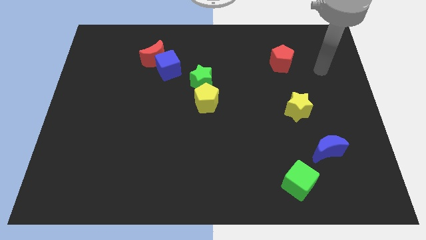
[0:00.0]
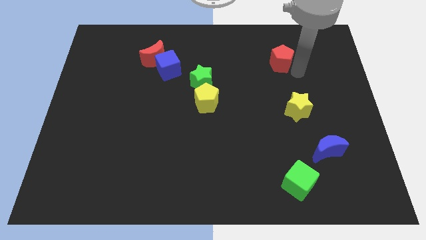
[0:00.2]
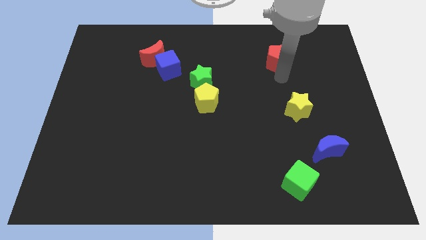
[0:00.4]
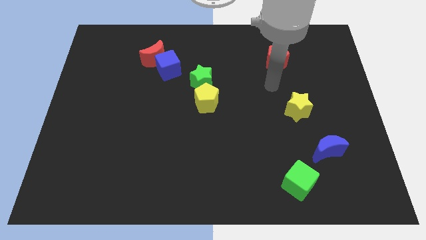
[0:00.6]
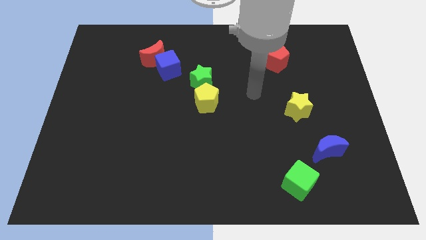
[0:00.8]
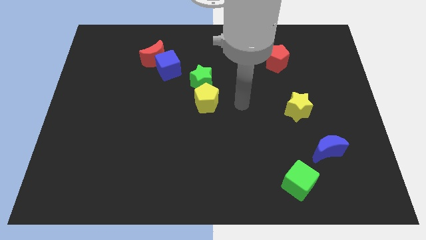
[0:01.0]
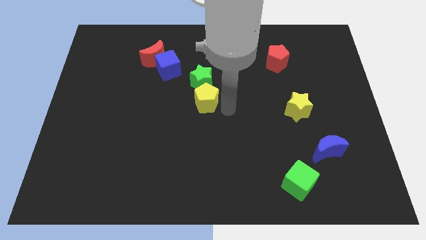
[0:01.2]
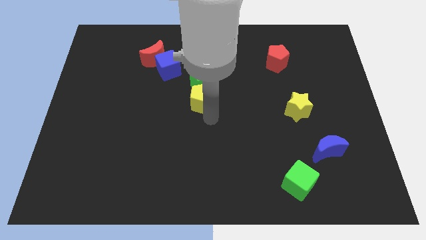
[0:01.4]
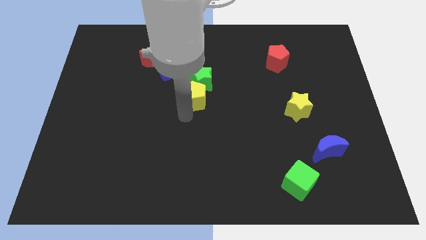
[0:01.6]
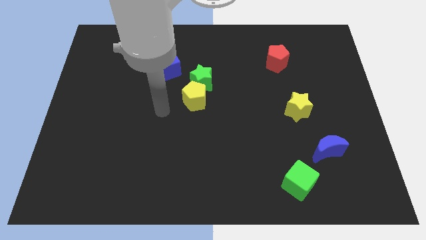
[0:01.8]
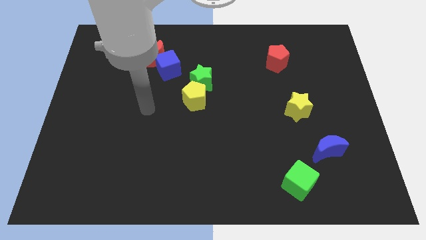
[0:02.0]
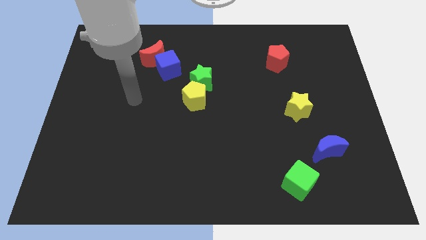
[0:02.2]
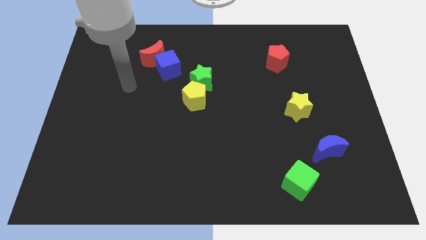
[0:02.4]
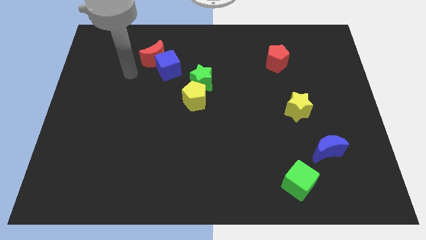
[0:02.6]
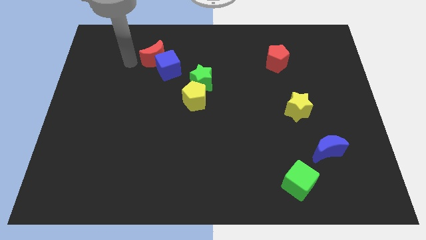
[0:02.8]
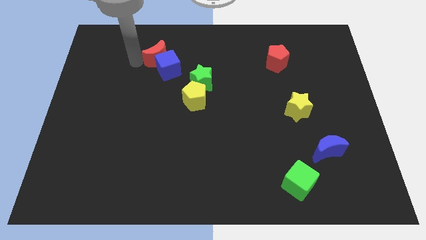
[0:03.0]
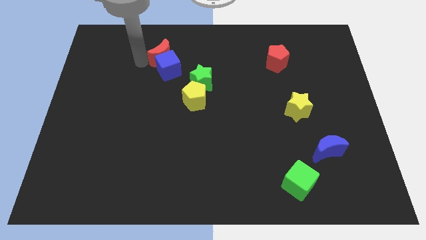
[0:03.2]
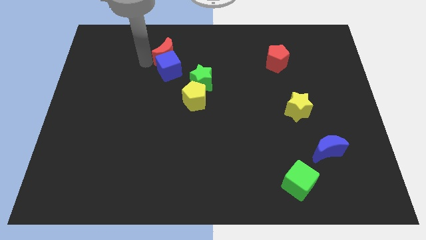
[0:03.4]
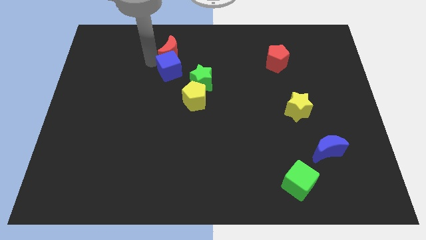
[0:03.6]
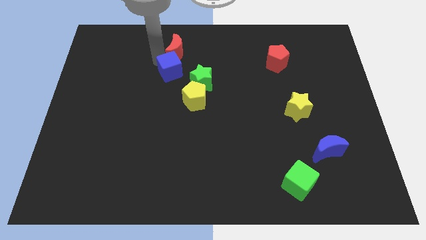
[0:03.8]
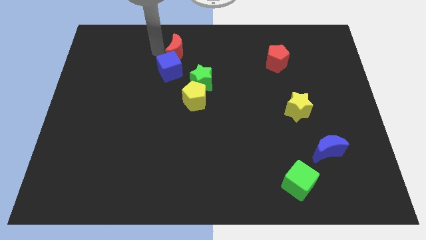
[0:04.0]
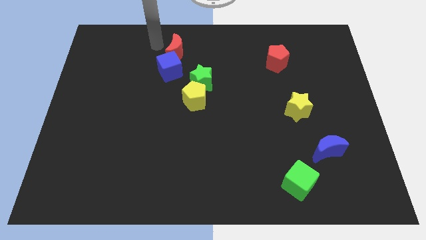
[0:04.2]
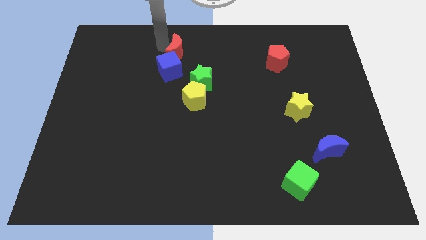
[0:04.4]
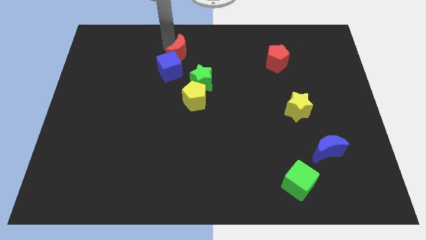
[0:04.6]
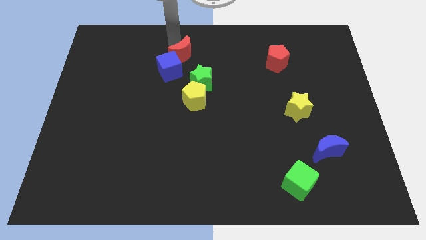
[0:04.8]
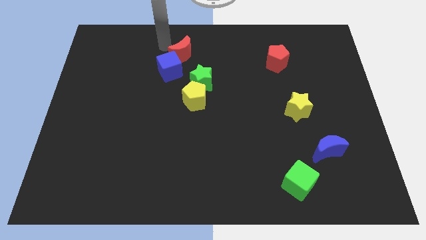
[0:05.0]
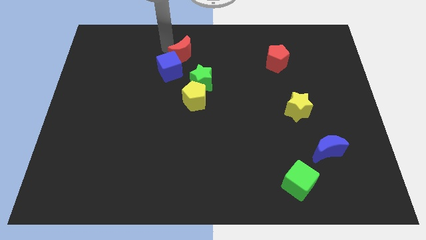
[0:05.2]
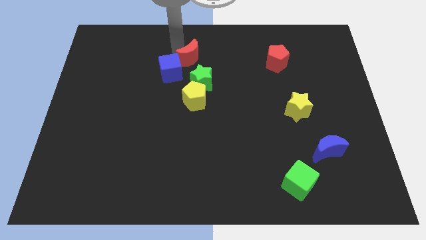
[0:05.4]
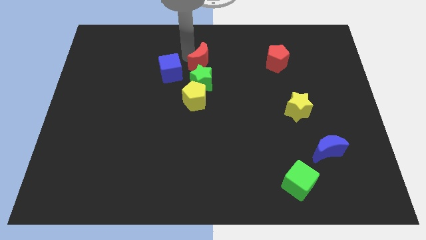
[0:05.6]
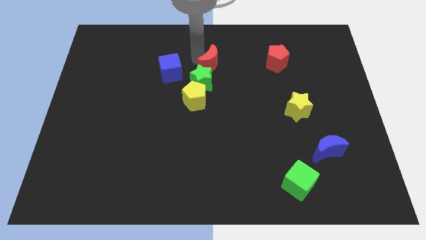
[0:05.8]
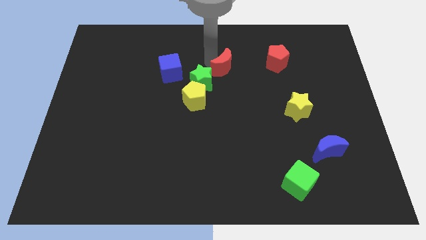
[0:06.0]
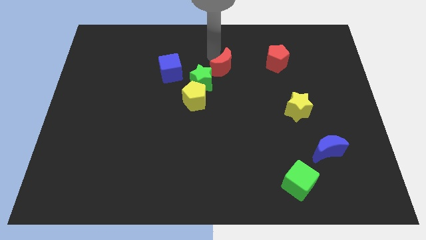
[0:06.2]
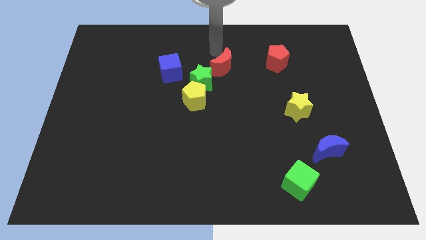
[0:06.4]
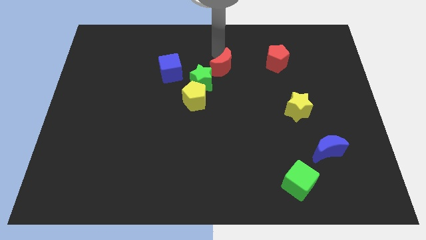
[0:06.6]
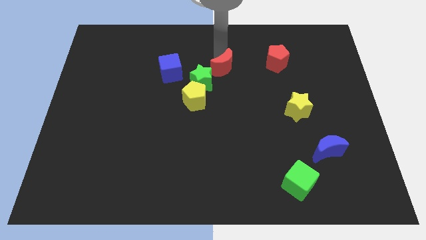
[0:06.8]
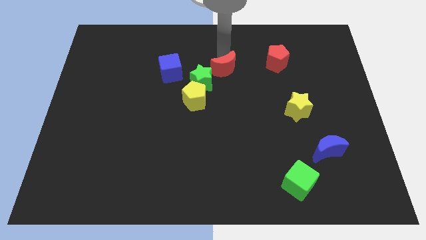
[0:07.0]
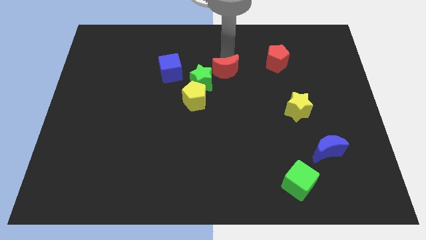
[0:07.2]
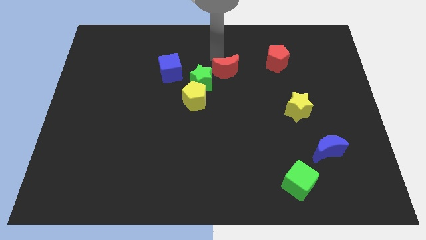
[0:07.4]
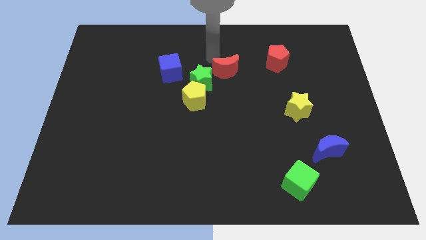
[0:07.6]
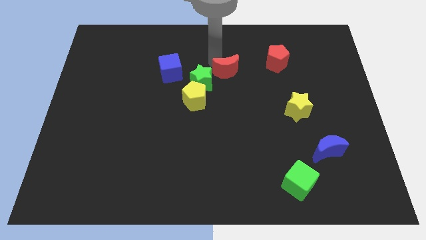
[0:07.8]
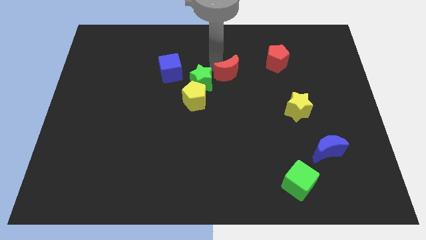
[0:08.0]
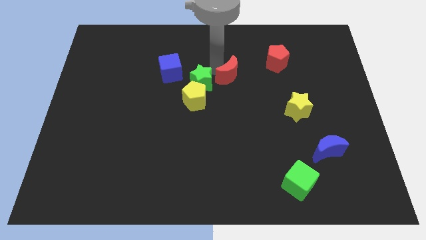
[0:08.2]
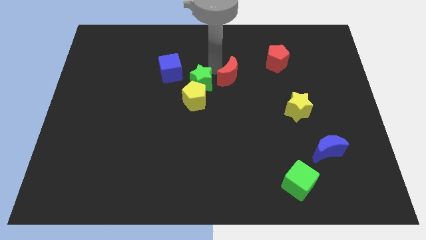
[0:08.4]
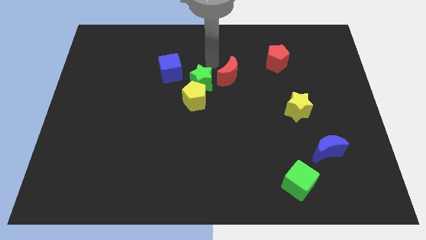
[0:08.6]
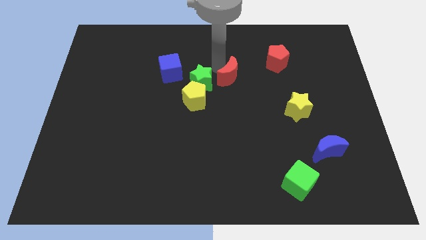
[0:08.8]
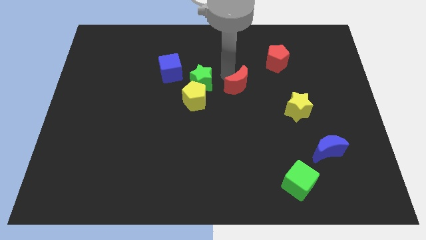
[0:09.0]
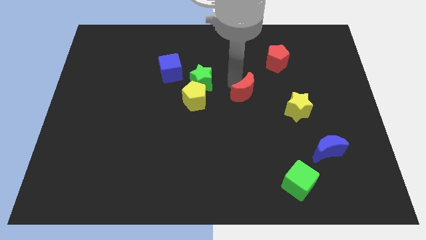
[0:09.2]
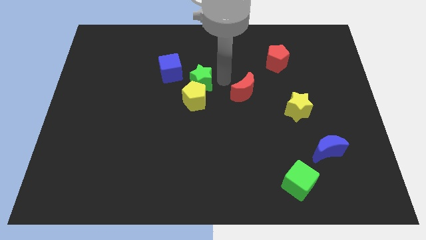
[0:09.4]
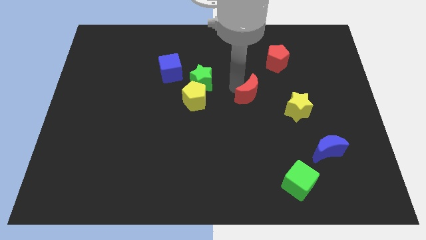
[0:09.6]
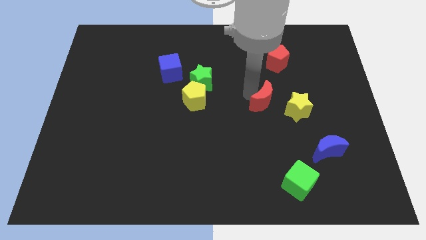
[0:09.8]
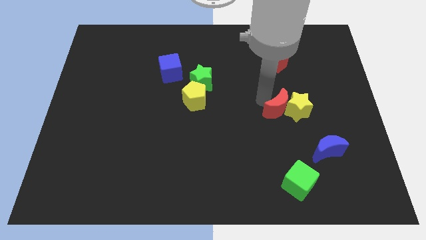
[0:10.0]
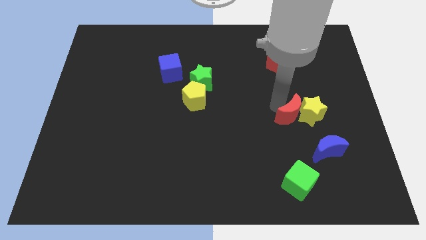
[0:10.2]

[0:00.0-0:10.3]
put the red moon to the top left side of the blue moon

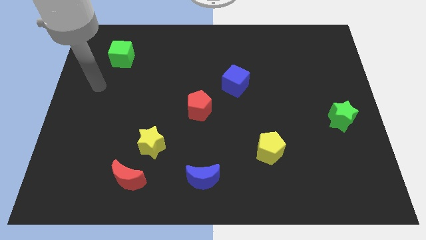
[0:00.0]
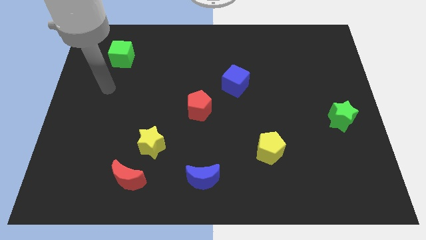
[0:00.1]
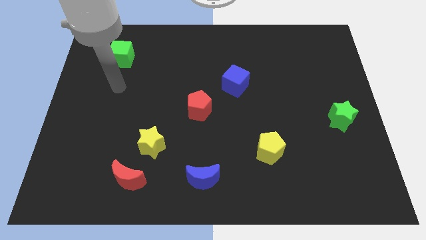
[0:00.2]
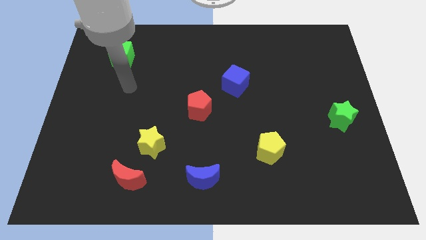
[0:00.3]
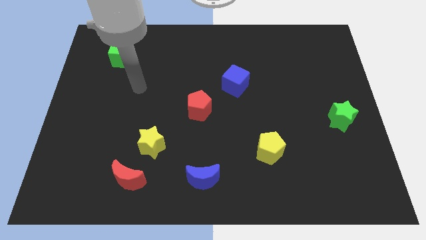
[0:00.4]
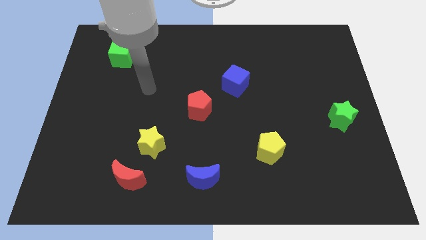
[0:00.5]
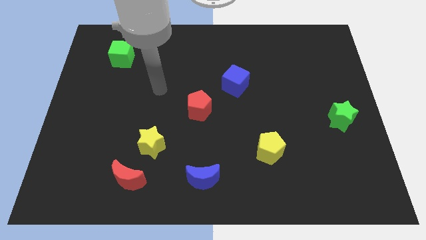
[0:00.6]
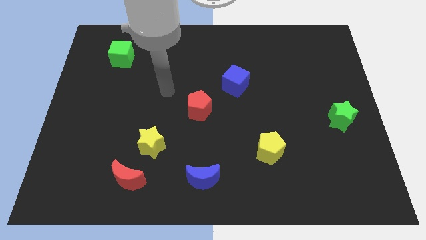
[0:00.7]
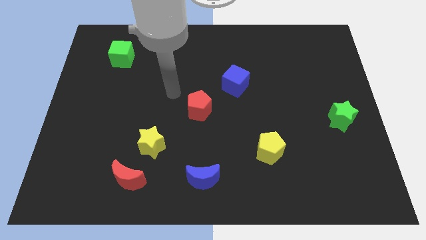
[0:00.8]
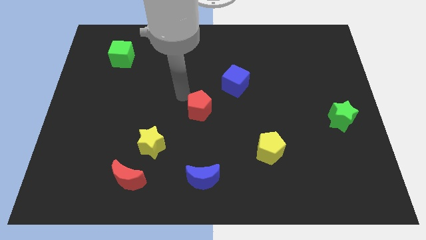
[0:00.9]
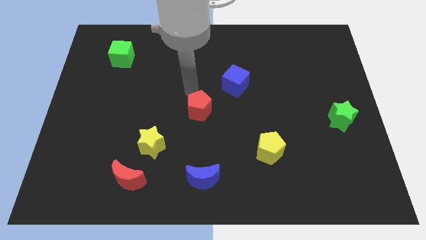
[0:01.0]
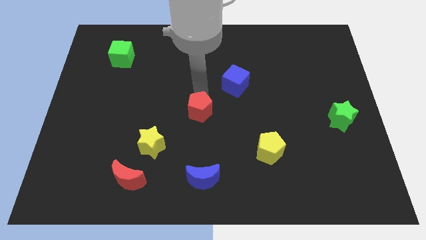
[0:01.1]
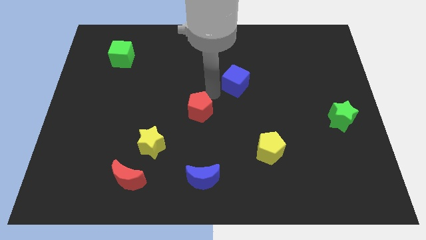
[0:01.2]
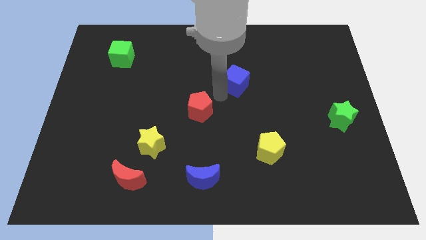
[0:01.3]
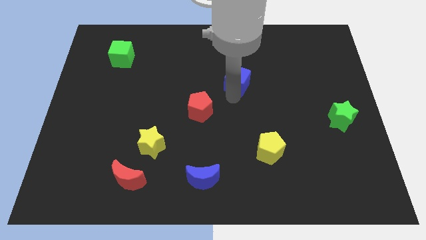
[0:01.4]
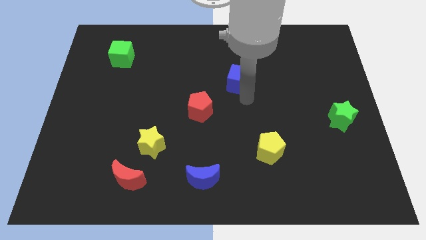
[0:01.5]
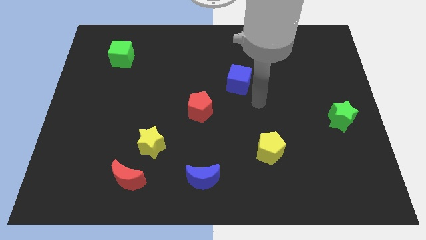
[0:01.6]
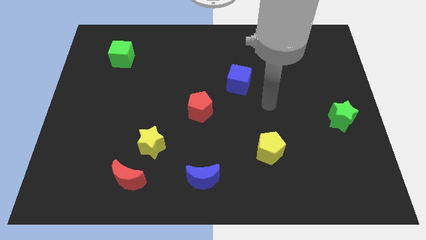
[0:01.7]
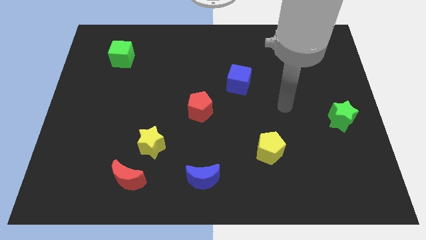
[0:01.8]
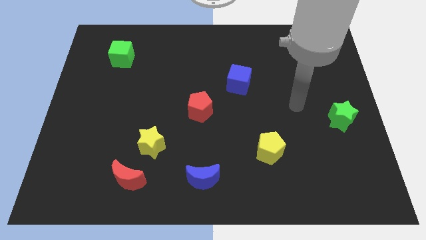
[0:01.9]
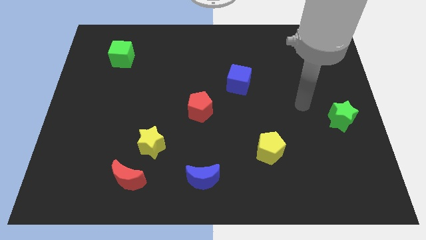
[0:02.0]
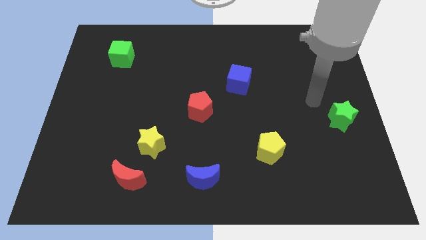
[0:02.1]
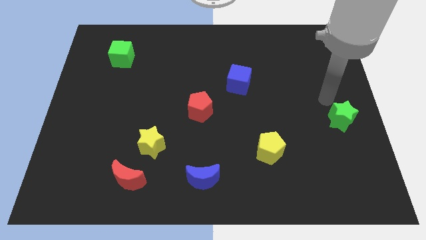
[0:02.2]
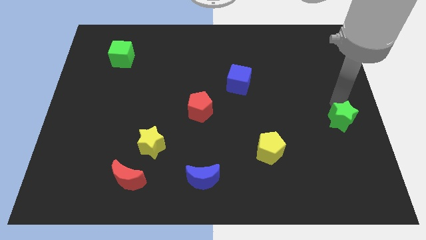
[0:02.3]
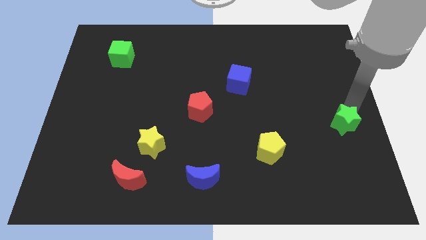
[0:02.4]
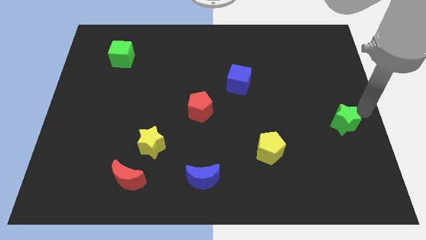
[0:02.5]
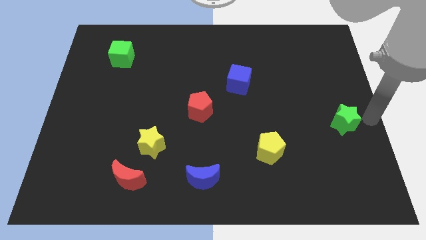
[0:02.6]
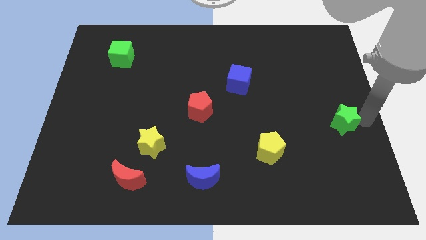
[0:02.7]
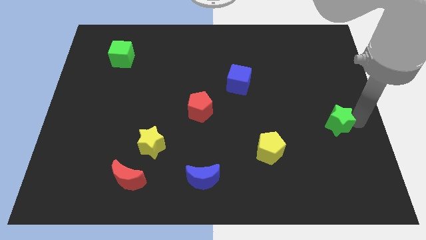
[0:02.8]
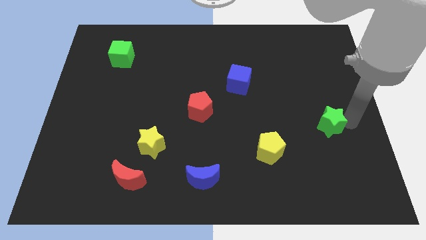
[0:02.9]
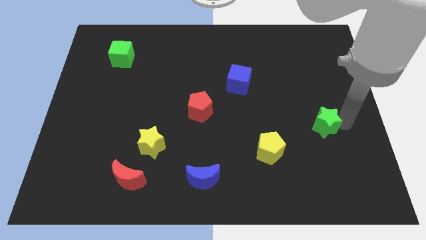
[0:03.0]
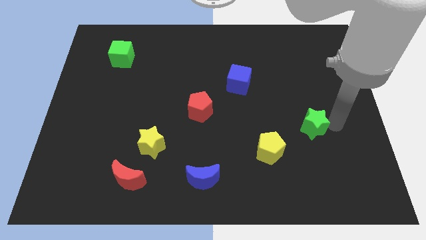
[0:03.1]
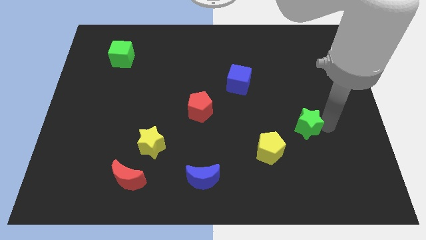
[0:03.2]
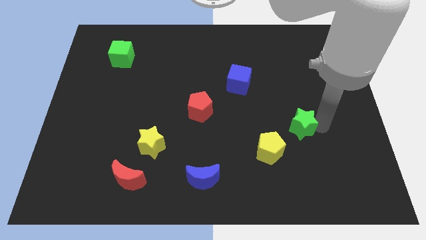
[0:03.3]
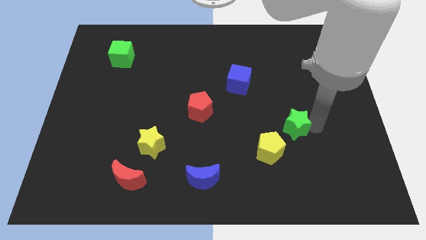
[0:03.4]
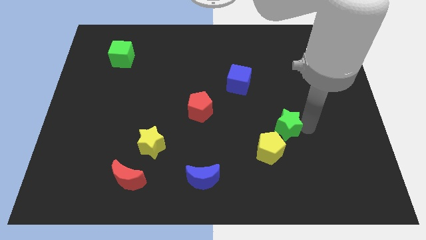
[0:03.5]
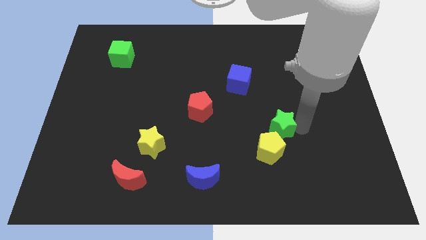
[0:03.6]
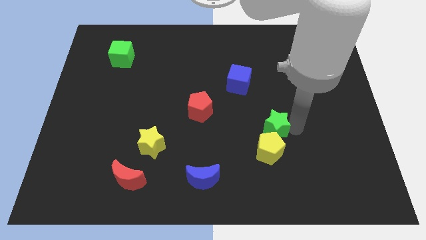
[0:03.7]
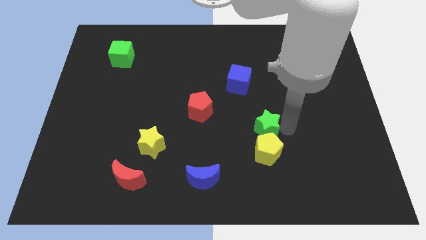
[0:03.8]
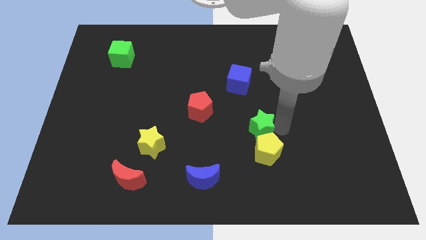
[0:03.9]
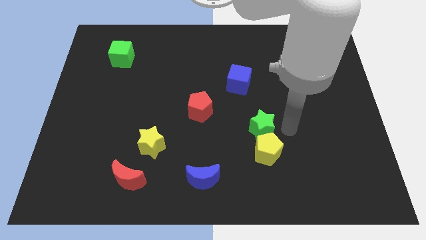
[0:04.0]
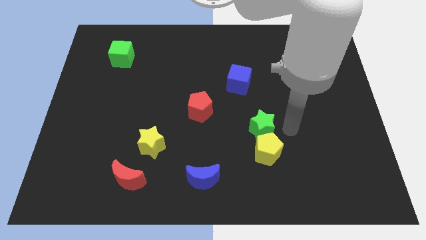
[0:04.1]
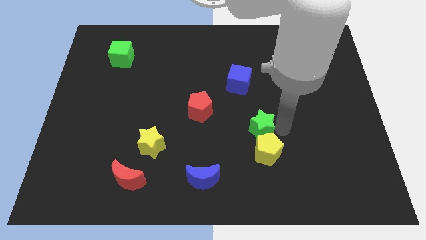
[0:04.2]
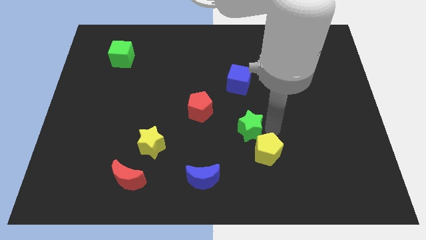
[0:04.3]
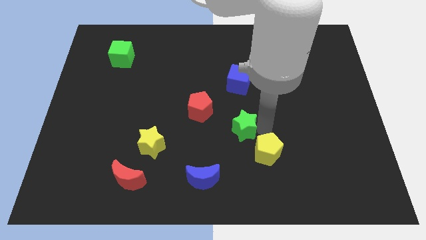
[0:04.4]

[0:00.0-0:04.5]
push the green star to the bottom right of the red pentagon
